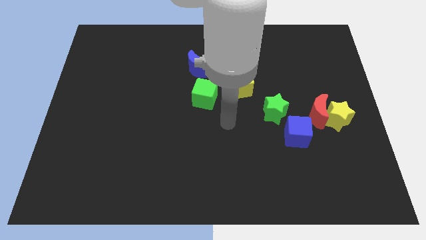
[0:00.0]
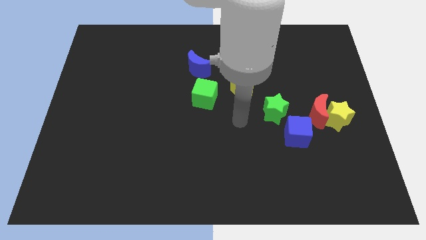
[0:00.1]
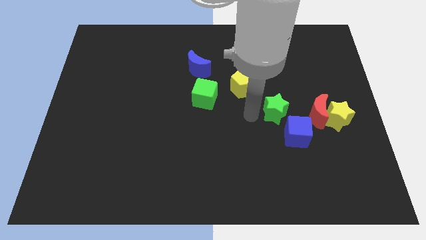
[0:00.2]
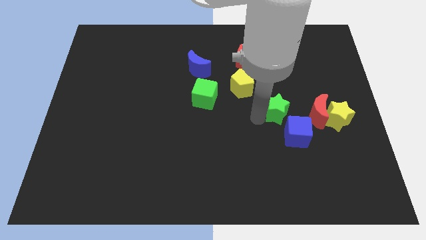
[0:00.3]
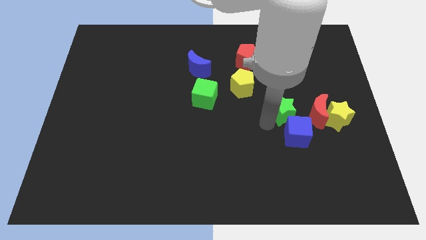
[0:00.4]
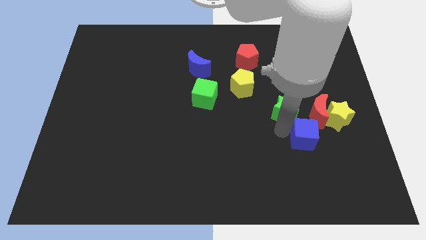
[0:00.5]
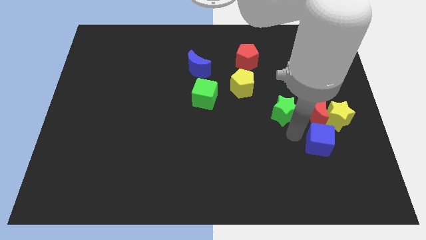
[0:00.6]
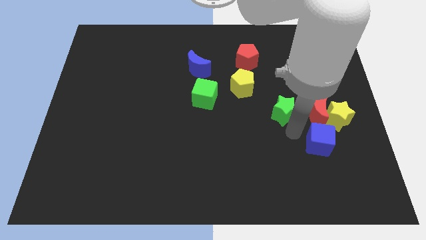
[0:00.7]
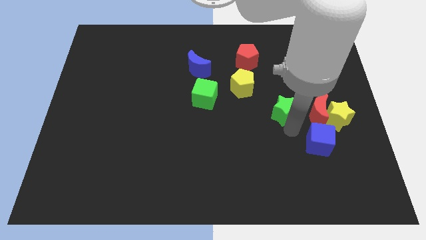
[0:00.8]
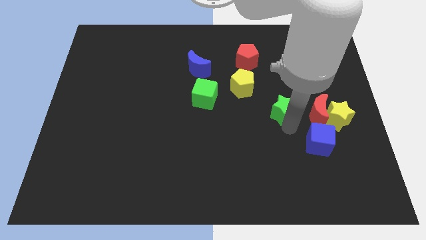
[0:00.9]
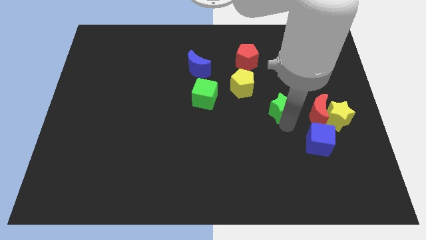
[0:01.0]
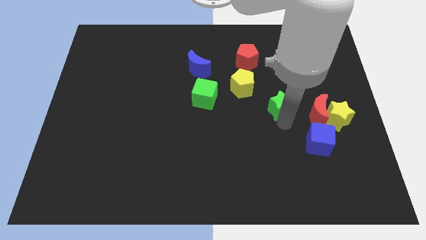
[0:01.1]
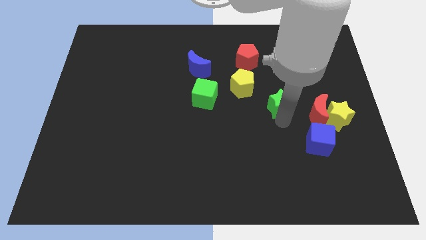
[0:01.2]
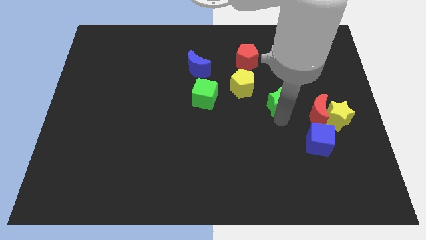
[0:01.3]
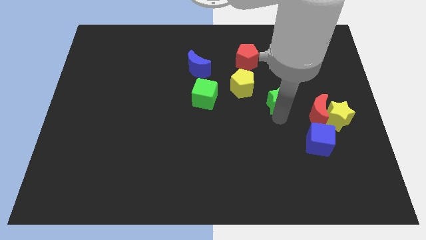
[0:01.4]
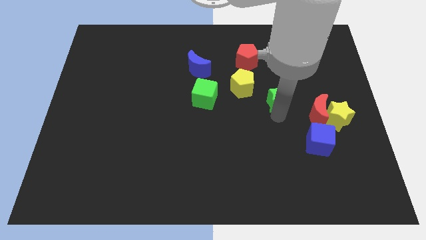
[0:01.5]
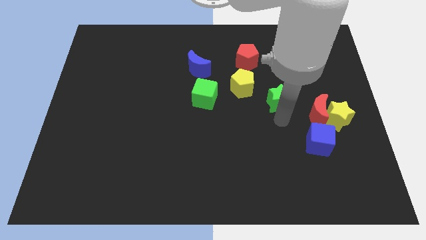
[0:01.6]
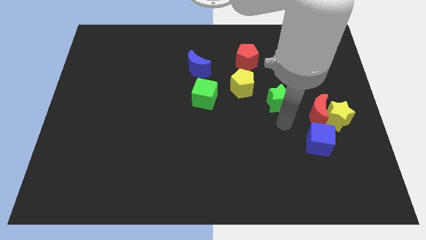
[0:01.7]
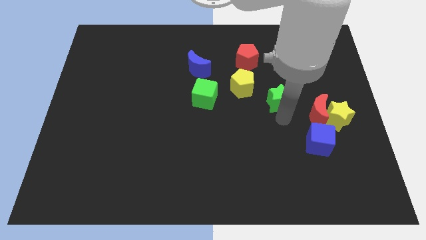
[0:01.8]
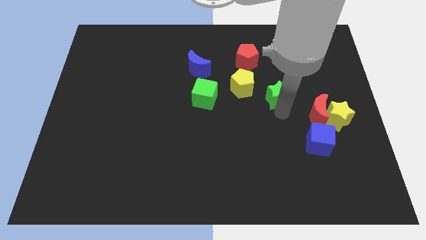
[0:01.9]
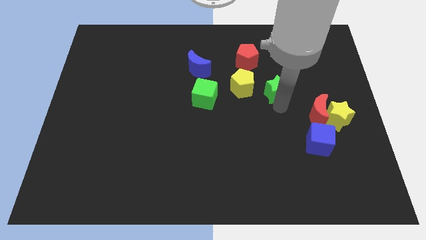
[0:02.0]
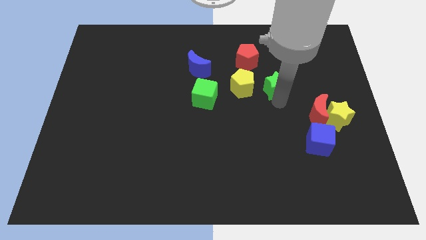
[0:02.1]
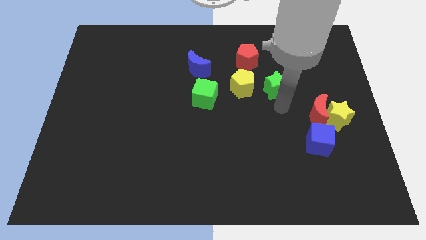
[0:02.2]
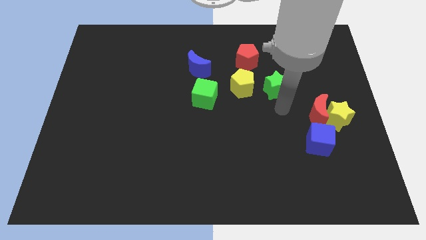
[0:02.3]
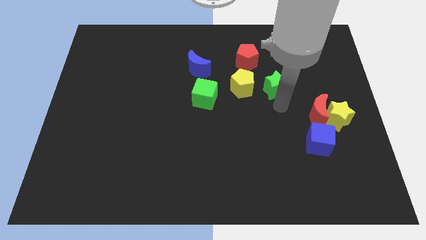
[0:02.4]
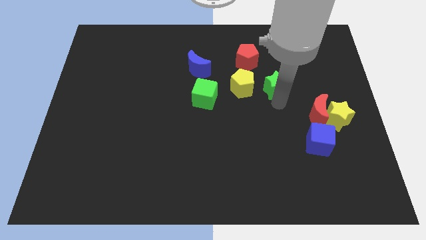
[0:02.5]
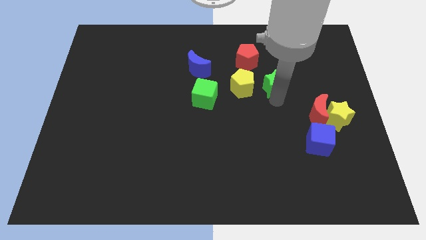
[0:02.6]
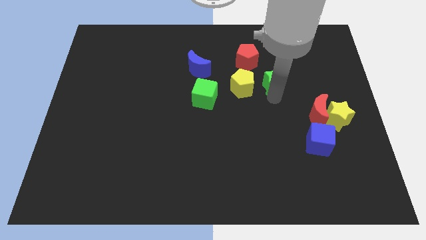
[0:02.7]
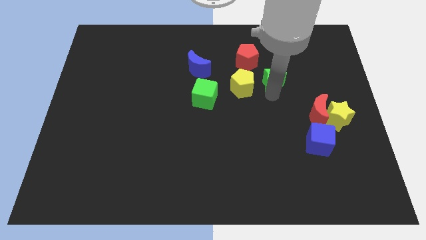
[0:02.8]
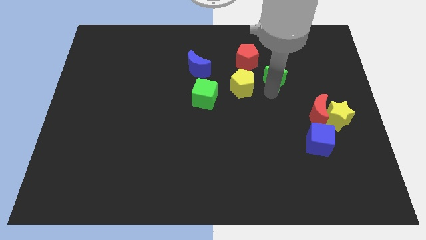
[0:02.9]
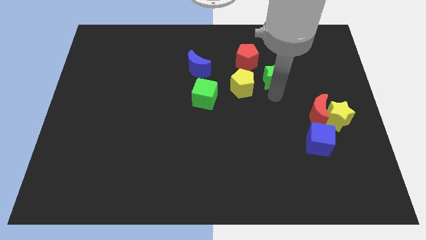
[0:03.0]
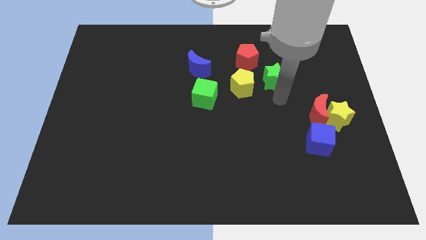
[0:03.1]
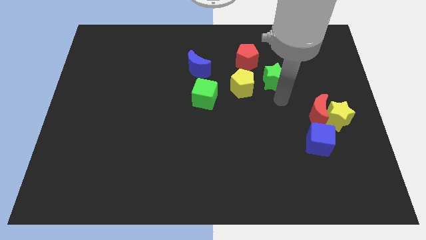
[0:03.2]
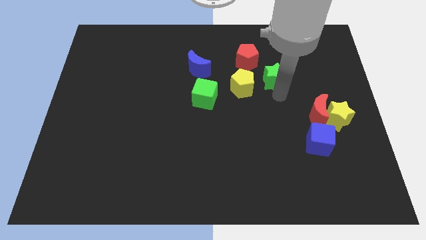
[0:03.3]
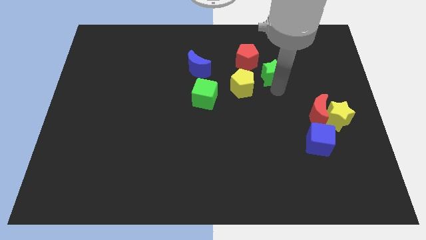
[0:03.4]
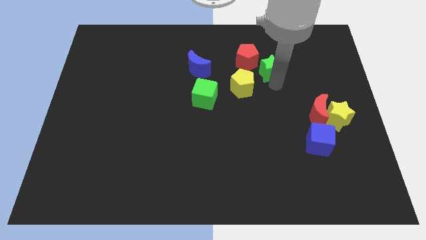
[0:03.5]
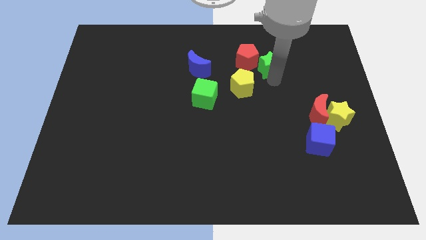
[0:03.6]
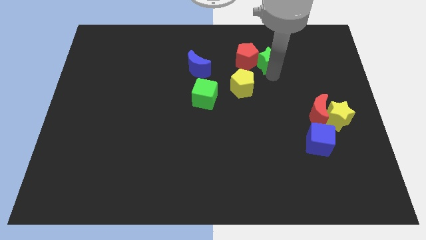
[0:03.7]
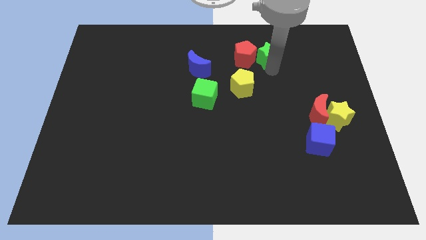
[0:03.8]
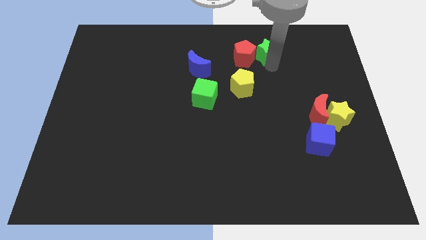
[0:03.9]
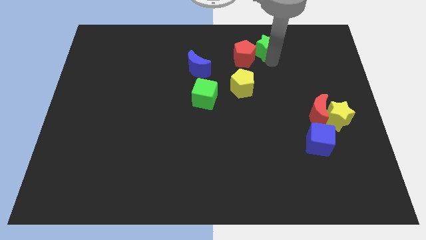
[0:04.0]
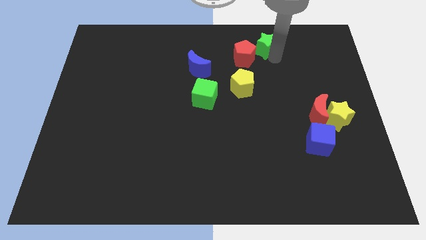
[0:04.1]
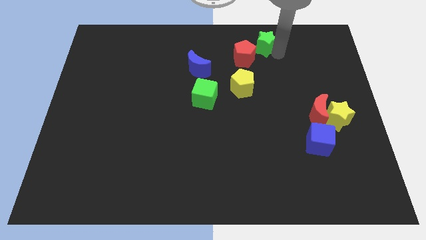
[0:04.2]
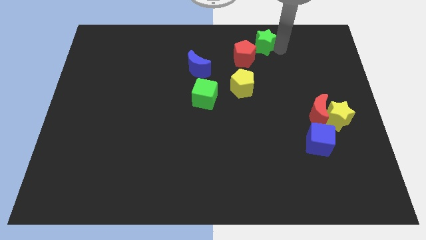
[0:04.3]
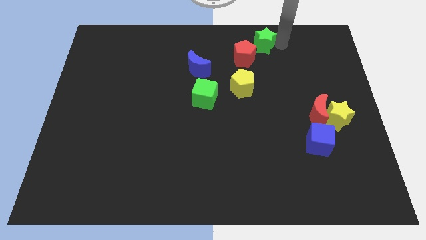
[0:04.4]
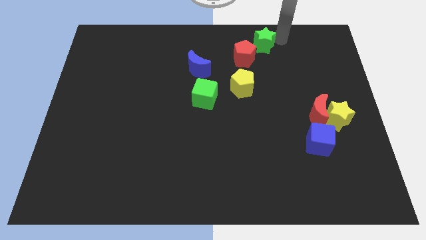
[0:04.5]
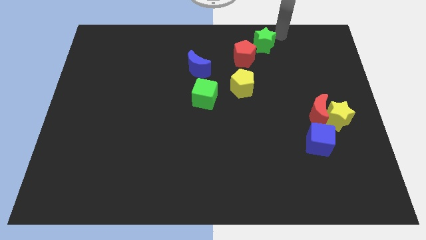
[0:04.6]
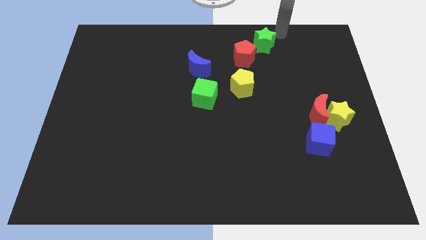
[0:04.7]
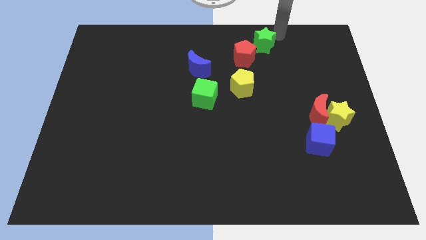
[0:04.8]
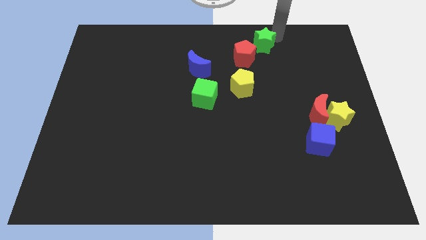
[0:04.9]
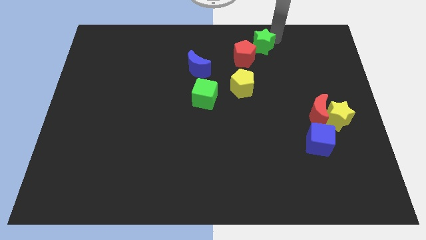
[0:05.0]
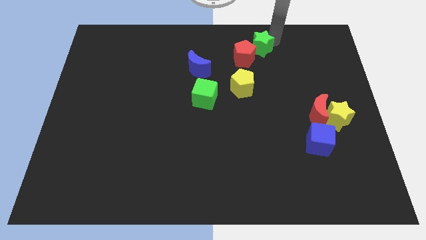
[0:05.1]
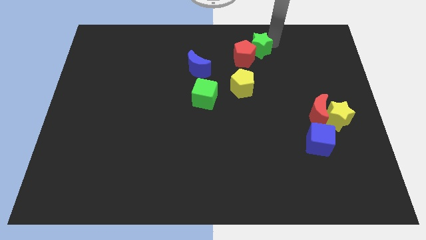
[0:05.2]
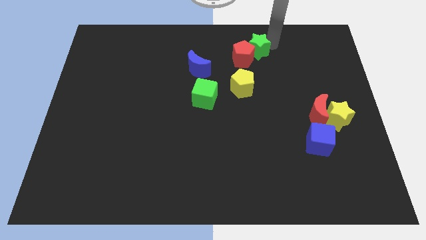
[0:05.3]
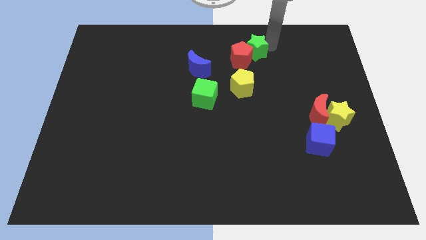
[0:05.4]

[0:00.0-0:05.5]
push the green star to the top of the yellow pentagon

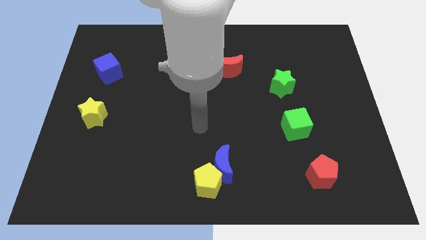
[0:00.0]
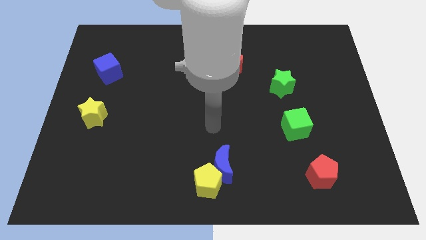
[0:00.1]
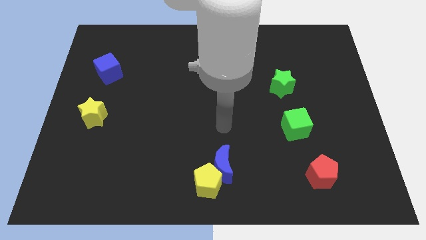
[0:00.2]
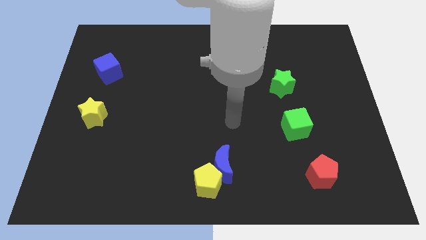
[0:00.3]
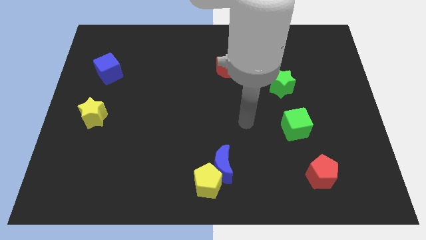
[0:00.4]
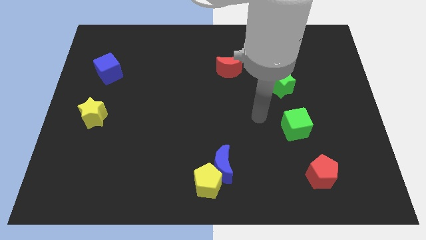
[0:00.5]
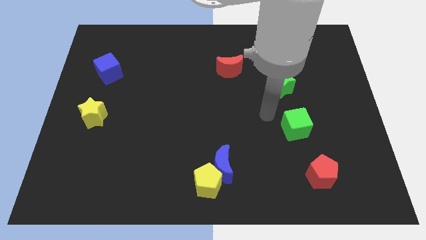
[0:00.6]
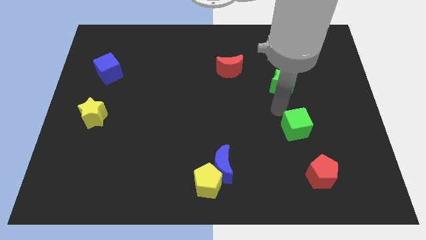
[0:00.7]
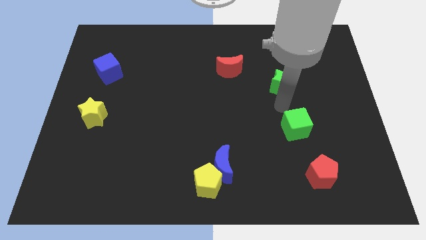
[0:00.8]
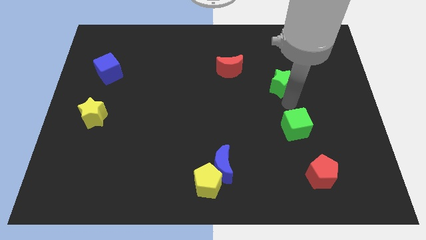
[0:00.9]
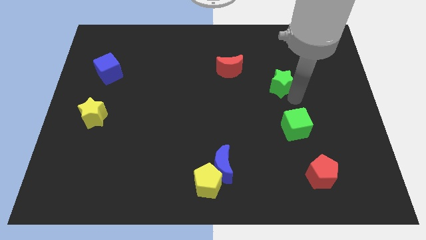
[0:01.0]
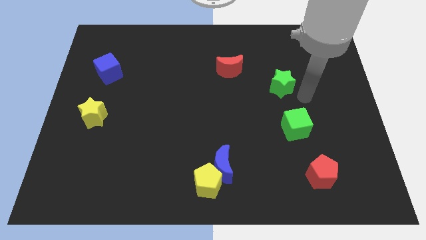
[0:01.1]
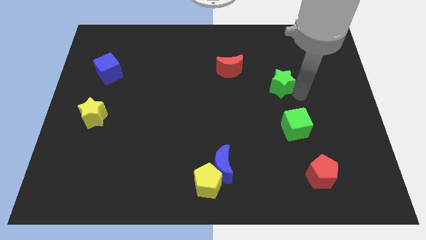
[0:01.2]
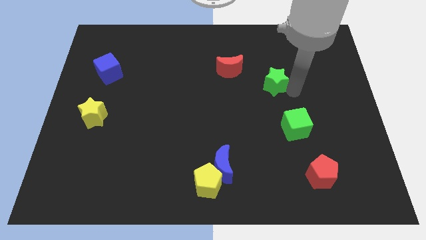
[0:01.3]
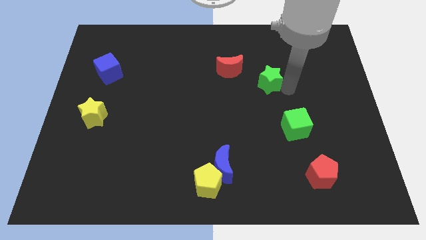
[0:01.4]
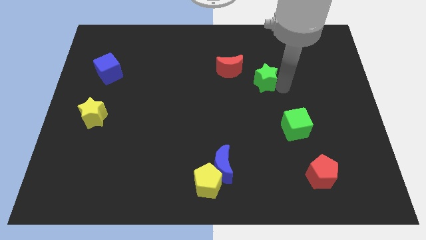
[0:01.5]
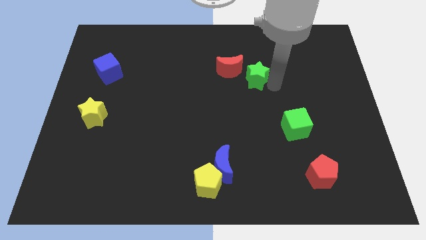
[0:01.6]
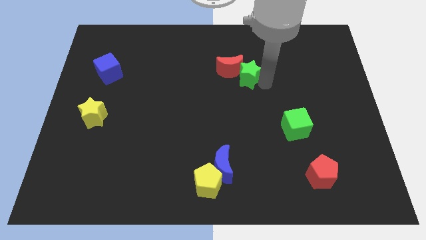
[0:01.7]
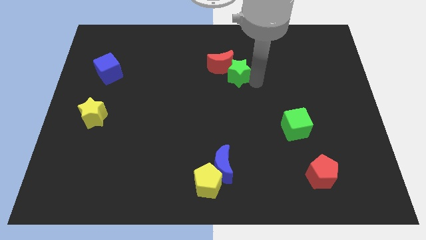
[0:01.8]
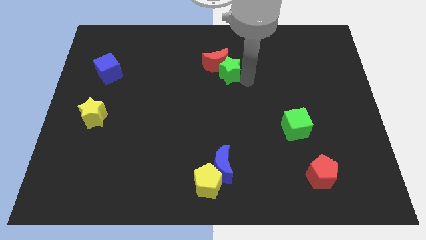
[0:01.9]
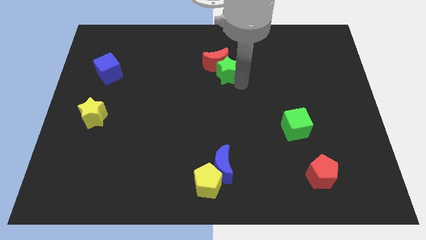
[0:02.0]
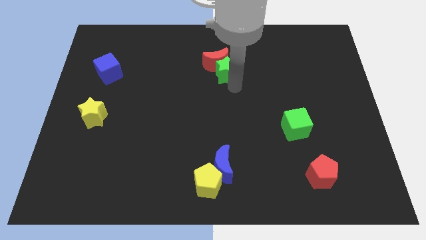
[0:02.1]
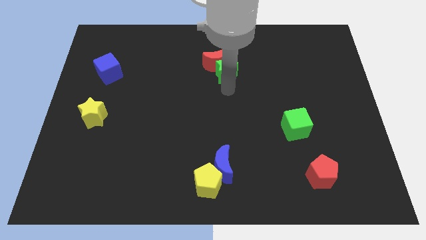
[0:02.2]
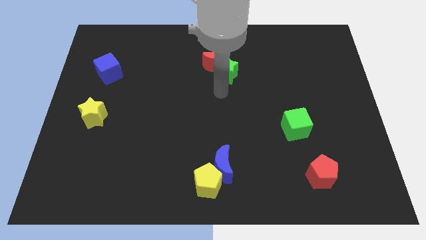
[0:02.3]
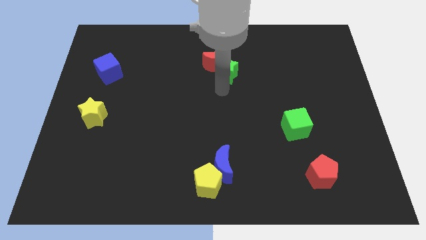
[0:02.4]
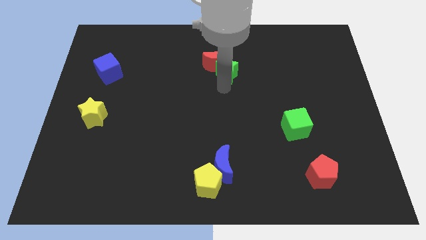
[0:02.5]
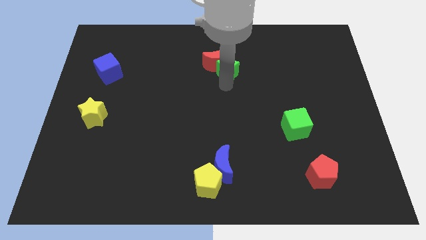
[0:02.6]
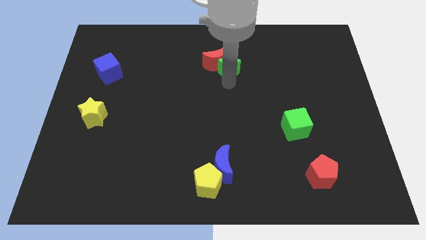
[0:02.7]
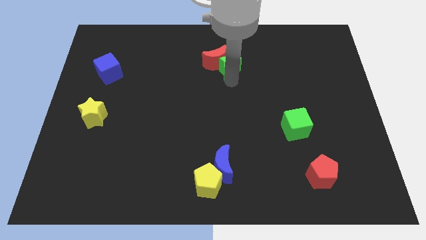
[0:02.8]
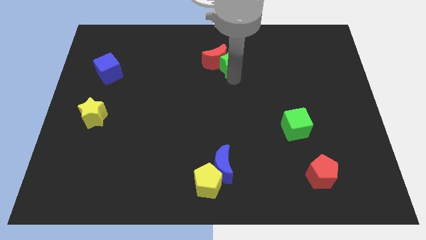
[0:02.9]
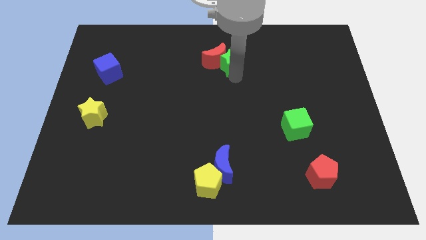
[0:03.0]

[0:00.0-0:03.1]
move the green star to the top right of the red moon
